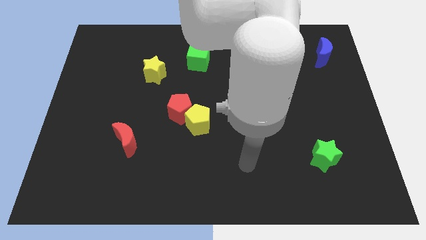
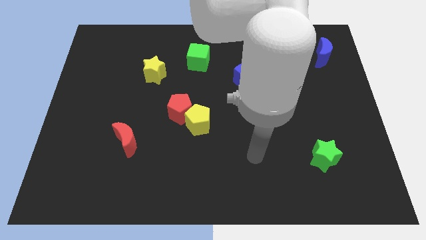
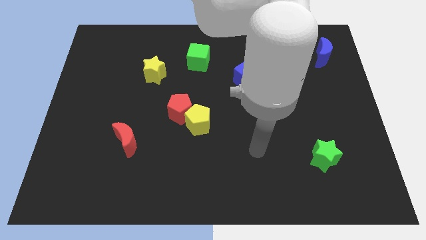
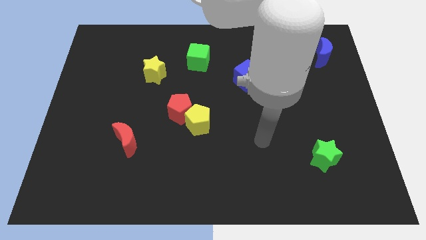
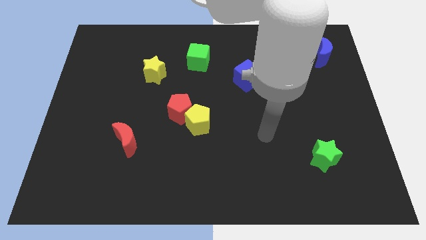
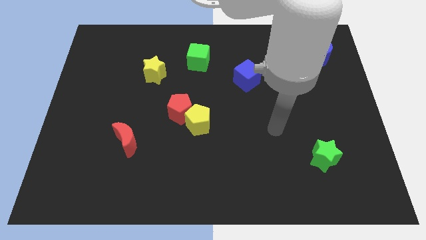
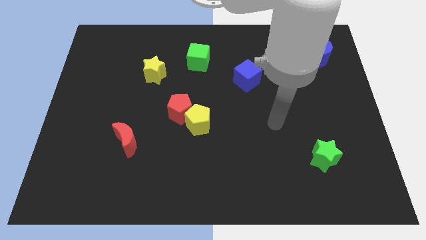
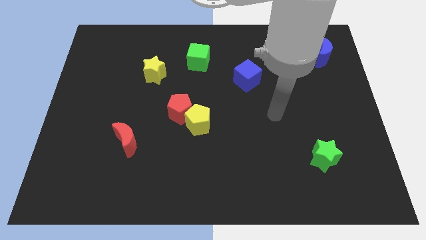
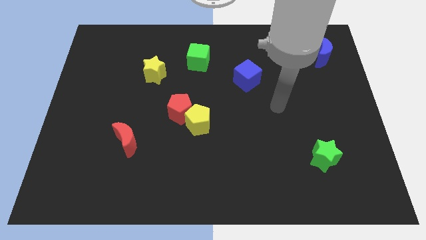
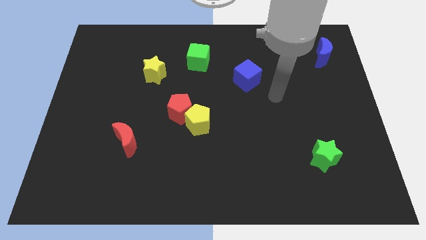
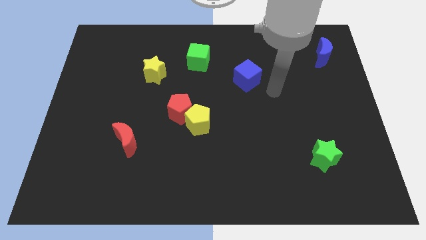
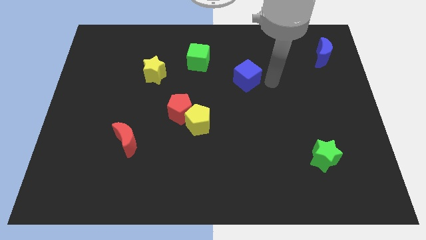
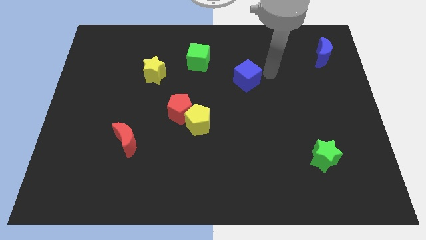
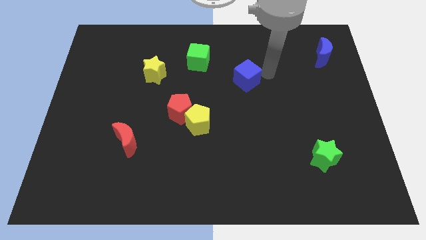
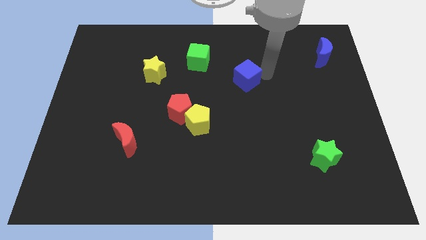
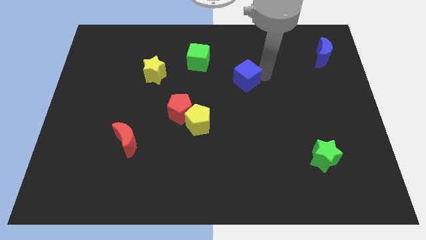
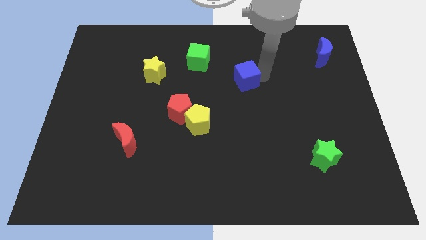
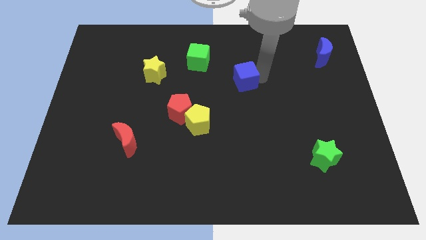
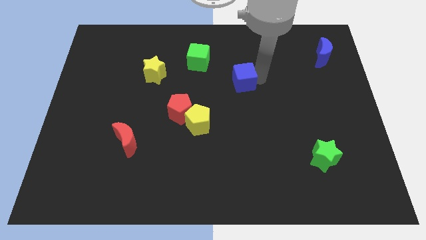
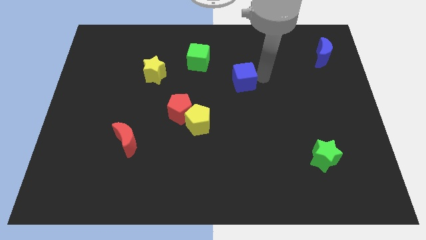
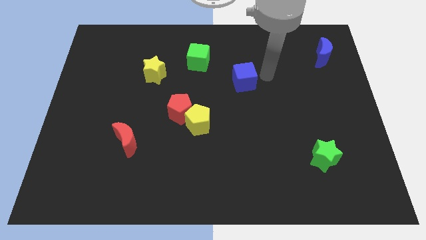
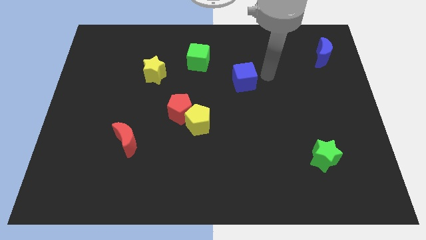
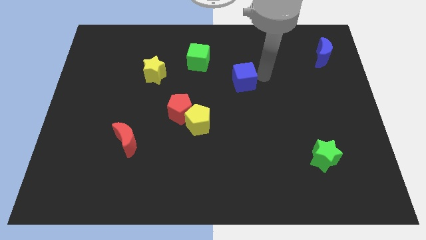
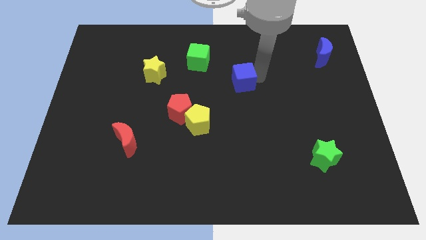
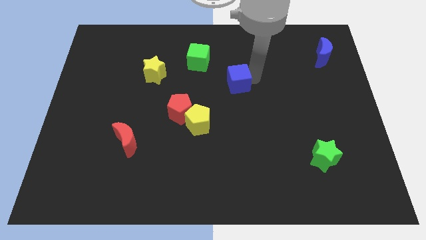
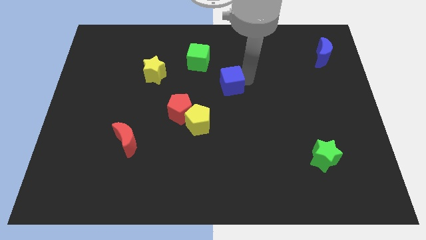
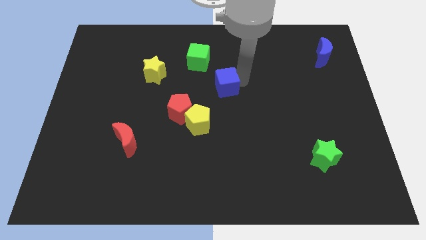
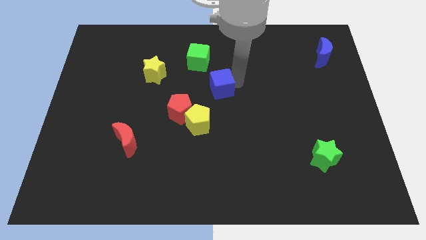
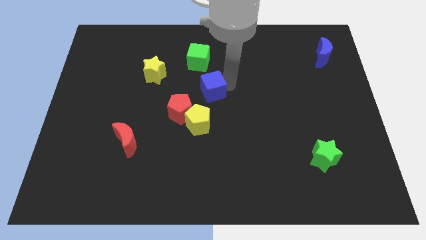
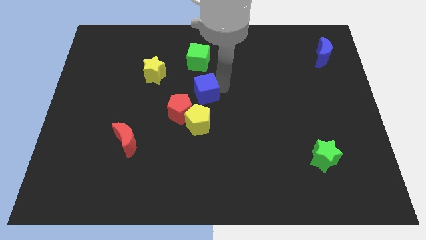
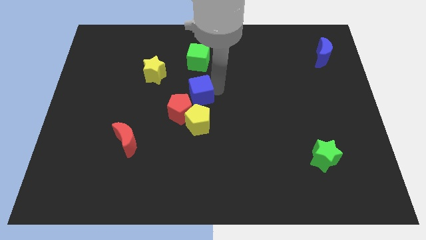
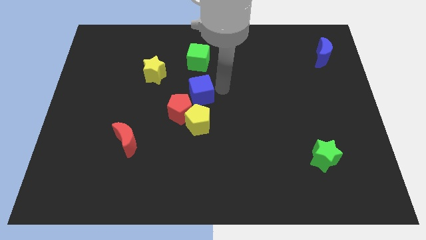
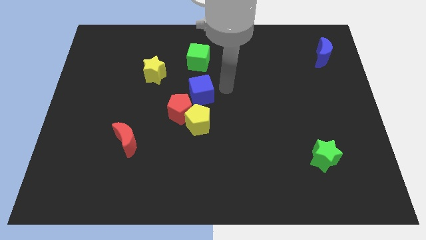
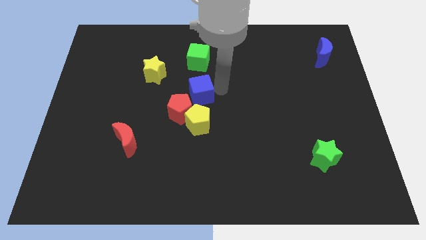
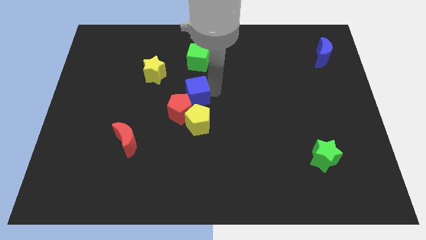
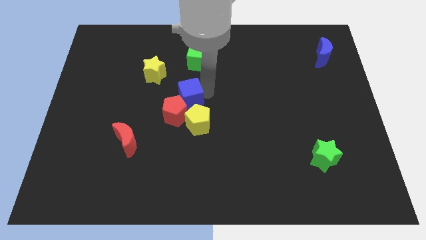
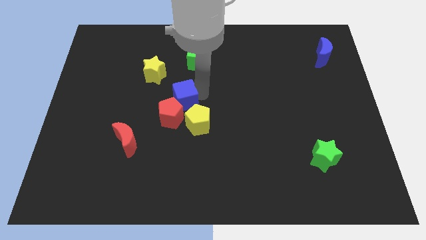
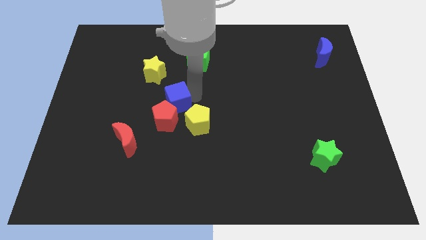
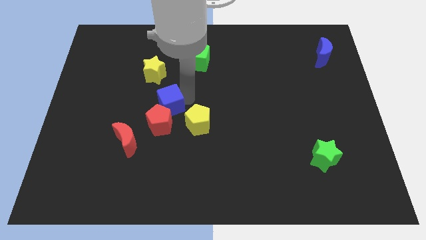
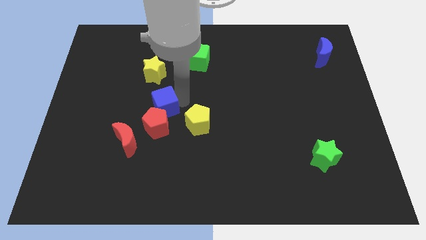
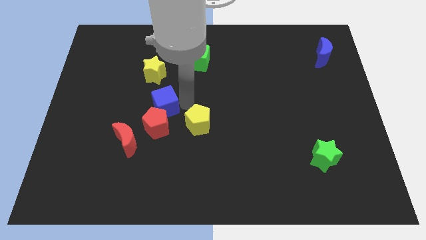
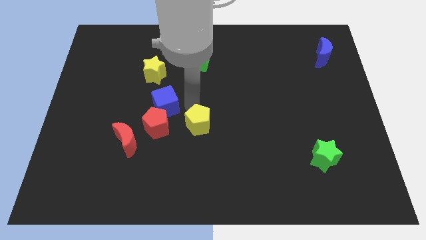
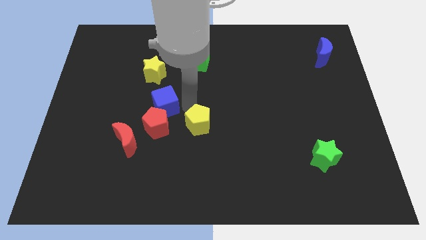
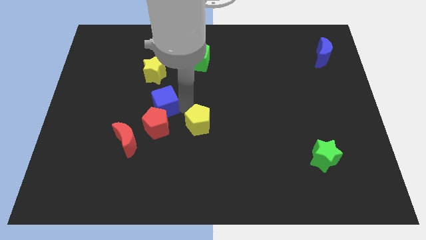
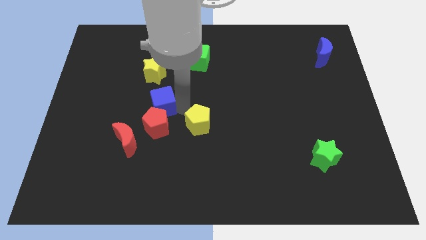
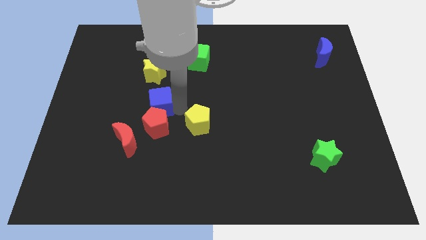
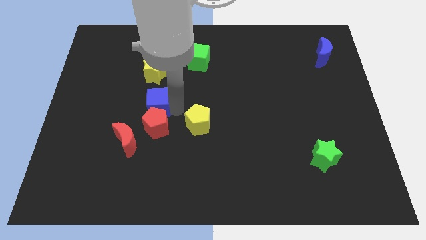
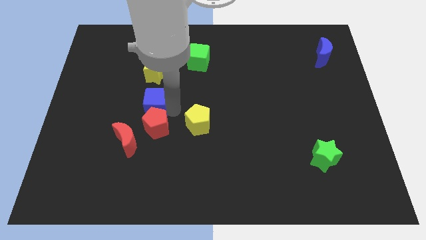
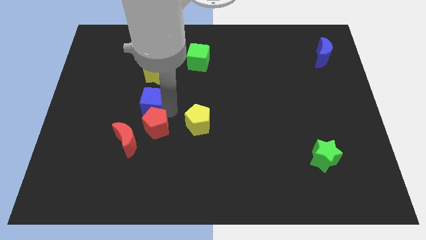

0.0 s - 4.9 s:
slide the blue cube to the top side of the red moon

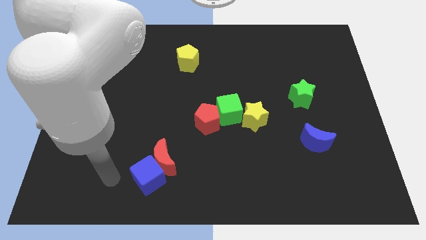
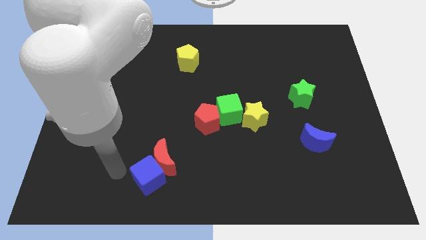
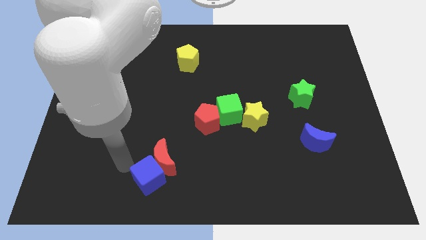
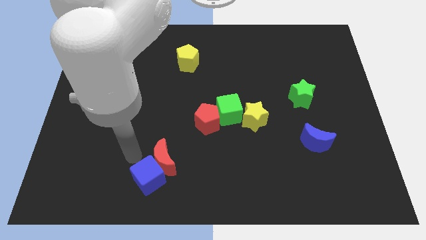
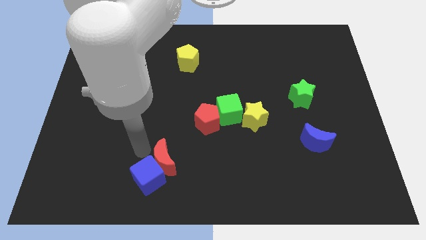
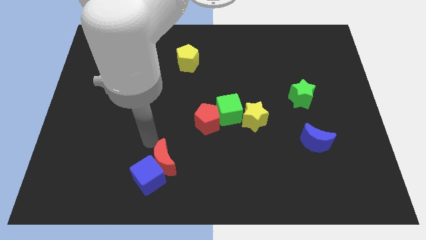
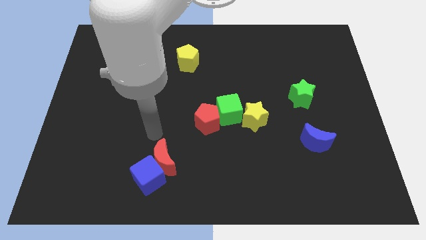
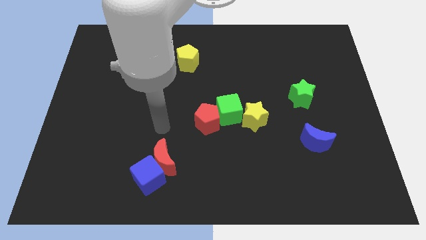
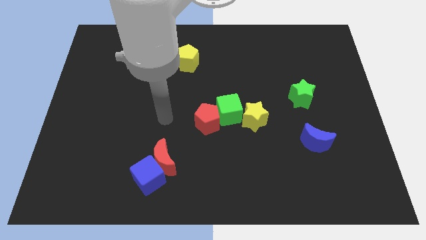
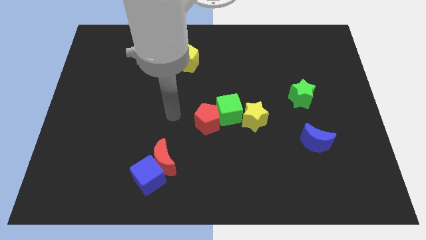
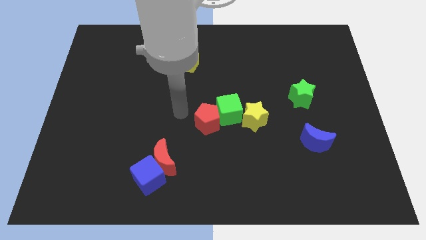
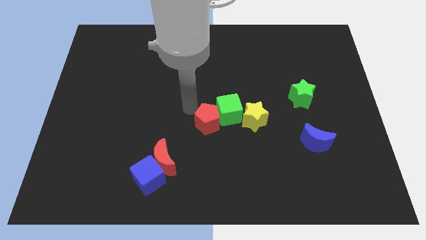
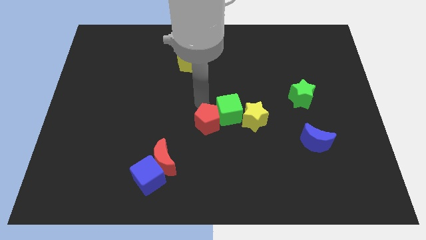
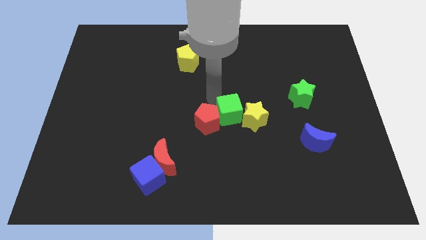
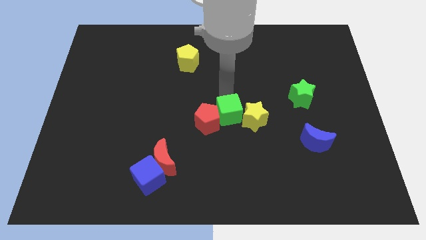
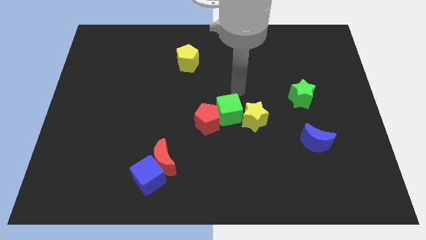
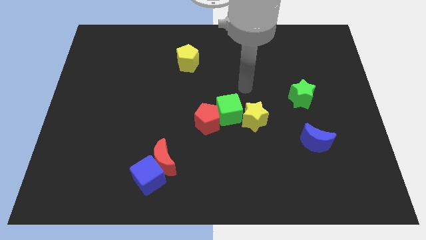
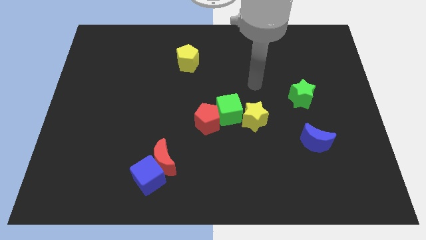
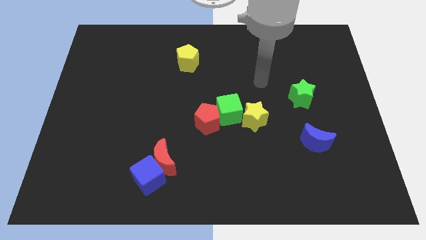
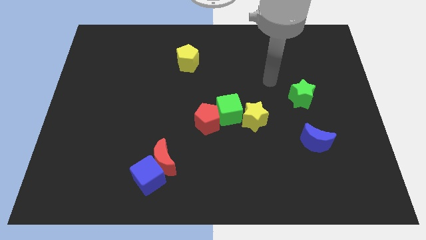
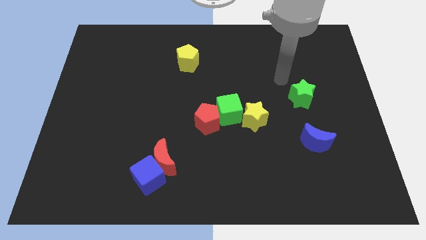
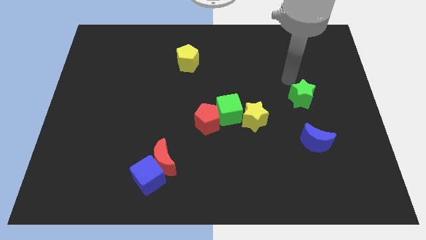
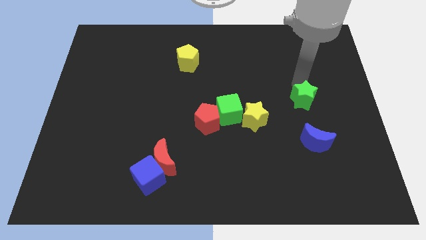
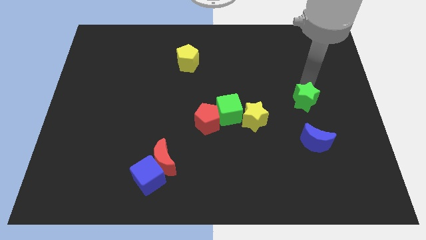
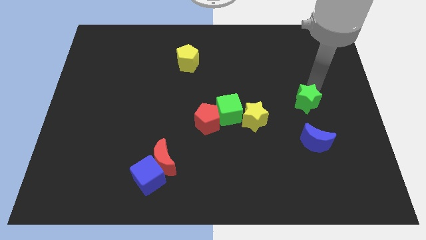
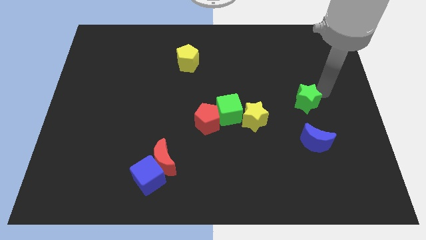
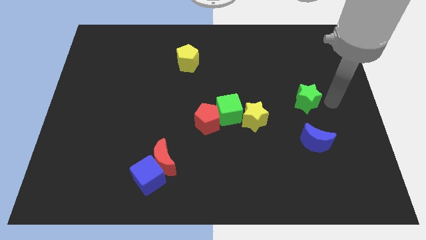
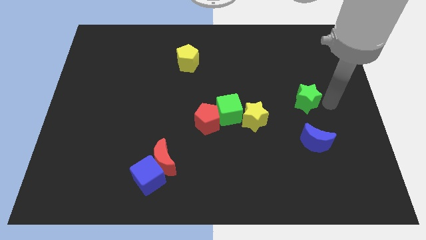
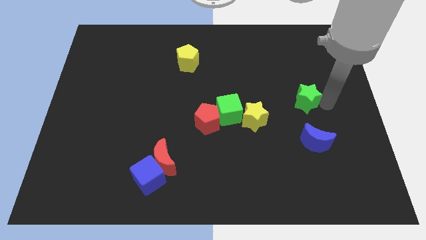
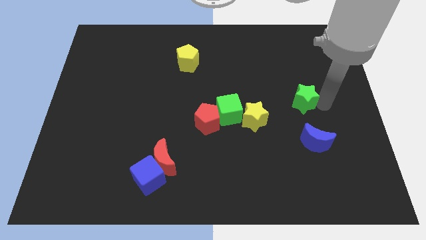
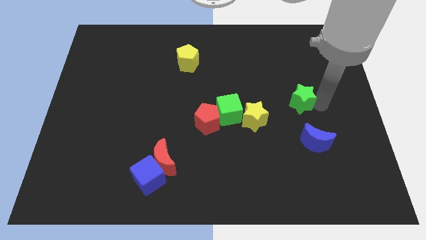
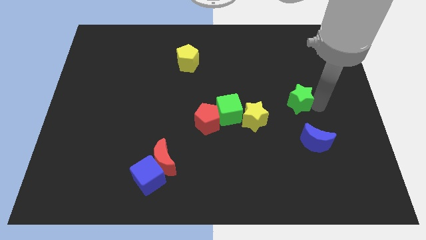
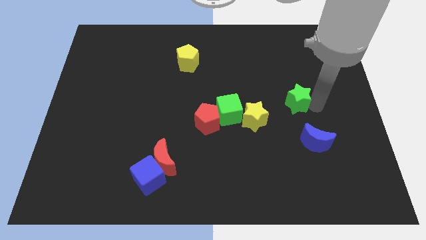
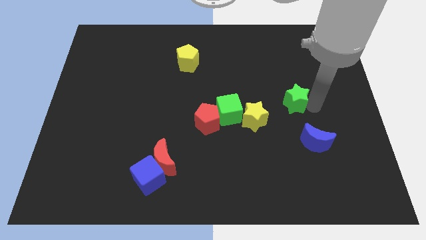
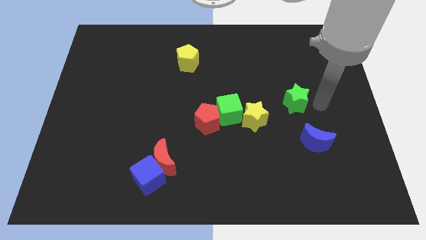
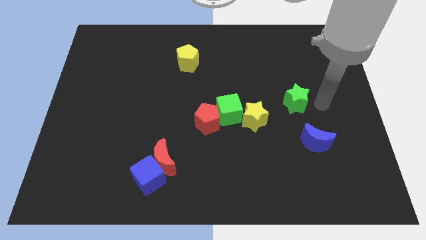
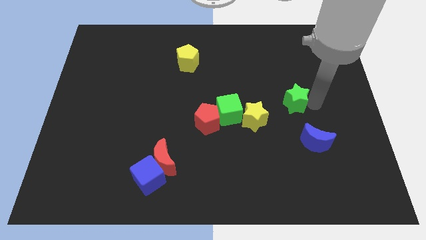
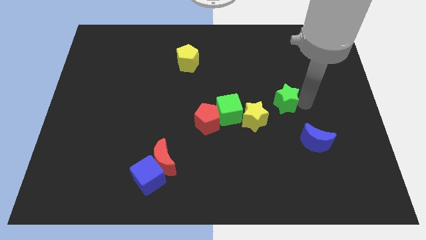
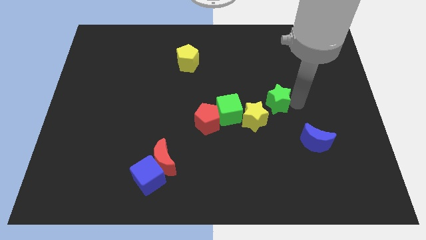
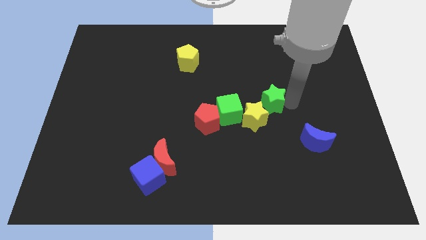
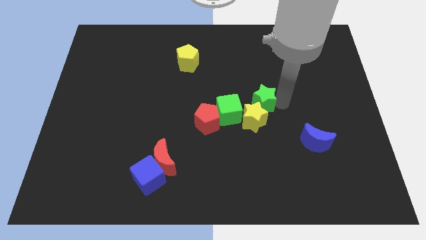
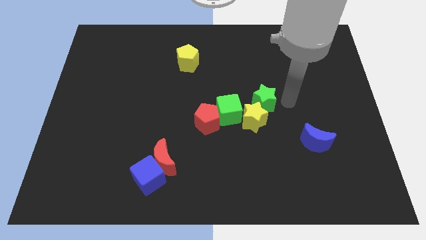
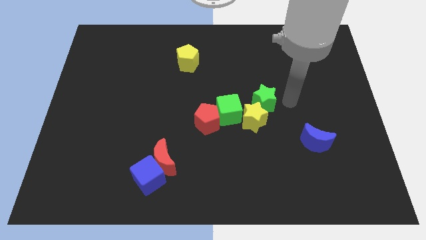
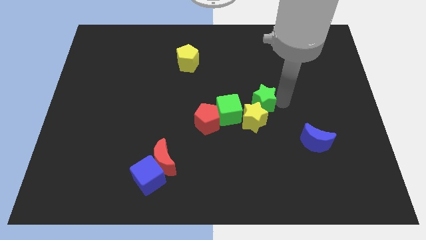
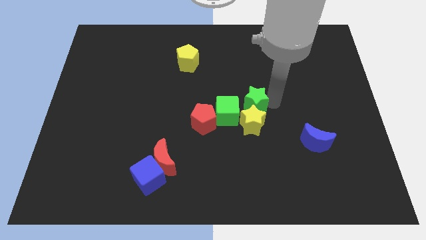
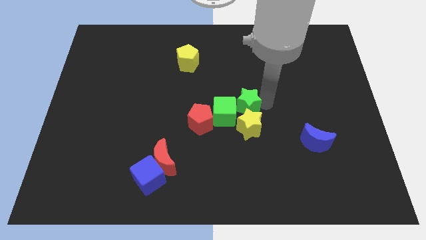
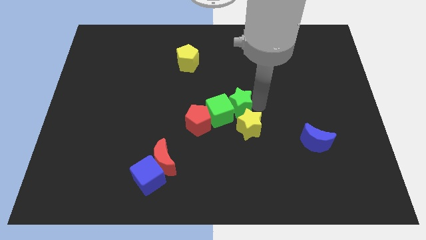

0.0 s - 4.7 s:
slide the green star to the top right side of the red pentagon
